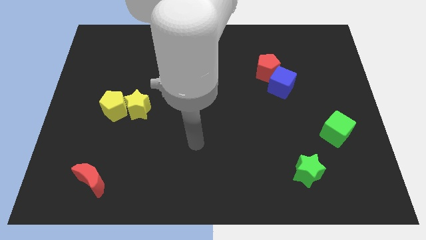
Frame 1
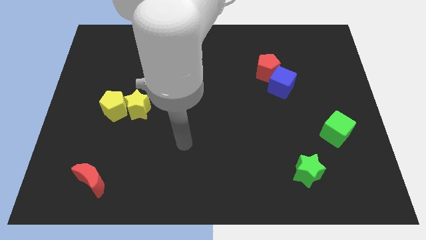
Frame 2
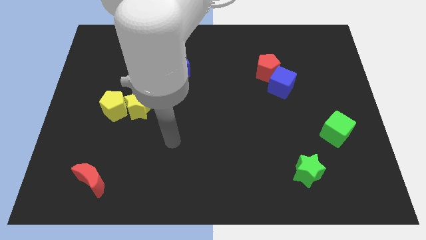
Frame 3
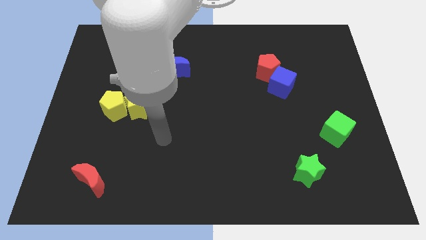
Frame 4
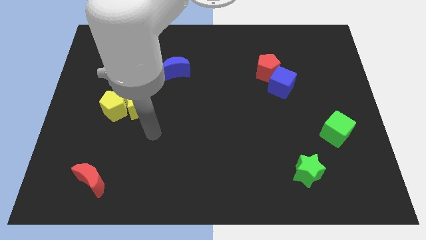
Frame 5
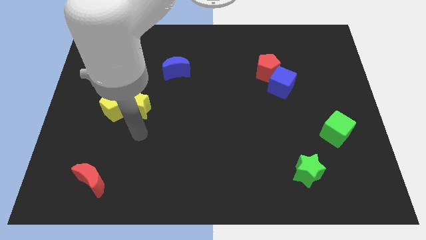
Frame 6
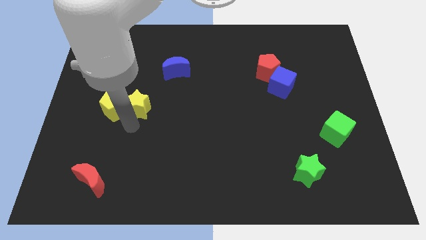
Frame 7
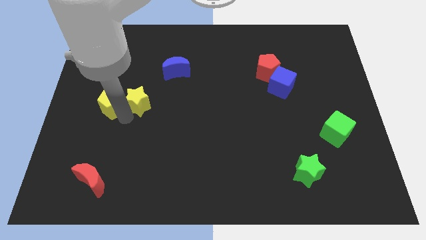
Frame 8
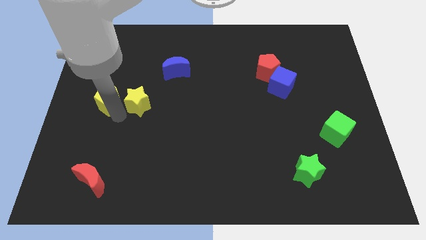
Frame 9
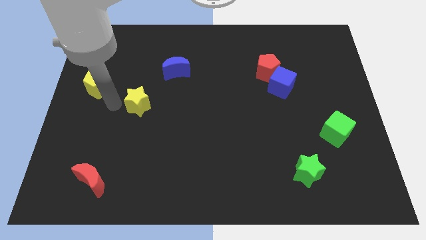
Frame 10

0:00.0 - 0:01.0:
move the yellow star away from the yellow pentagon

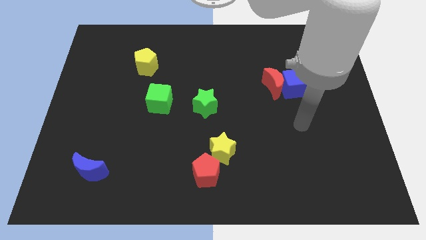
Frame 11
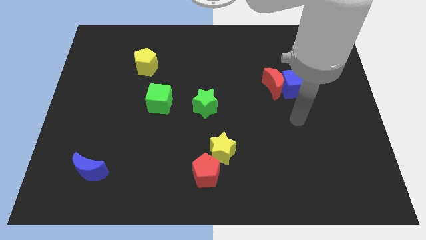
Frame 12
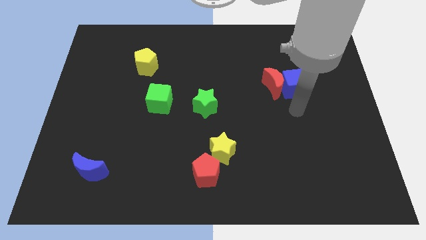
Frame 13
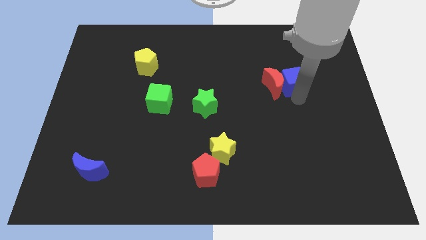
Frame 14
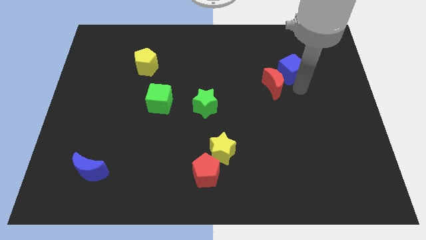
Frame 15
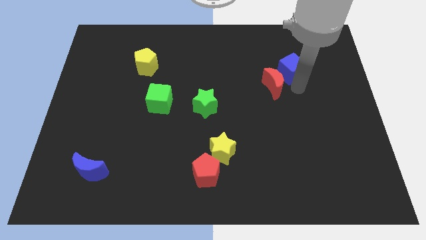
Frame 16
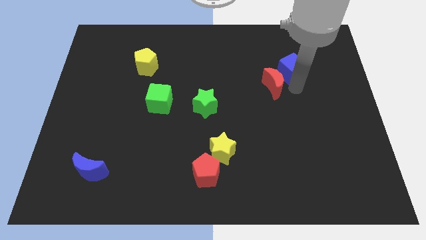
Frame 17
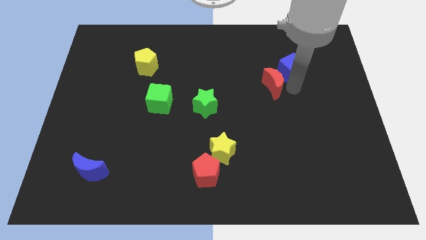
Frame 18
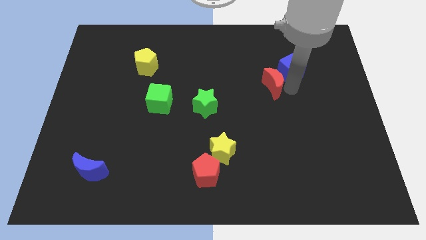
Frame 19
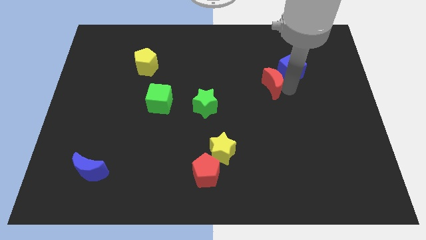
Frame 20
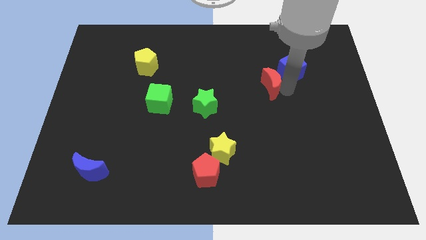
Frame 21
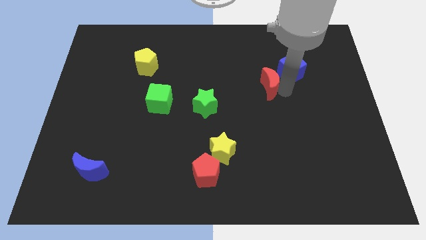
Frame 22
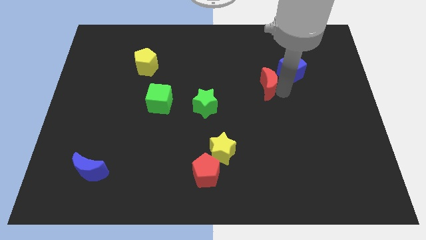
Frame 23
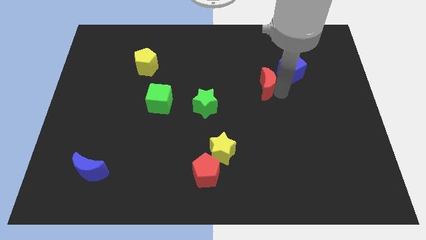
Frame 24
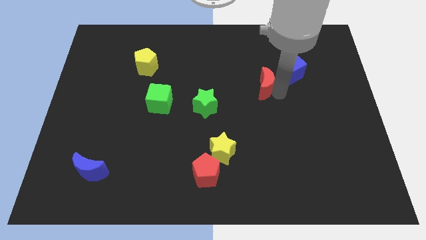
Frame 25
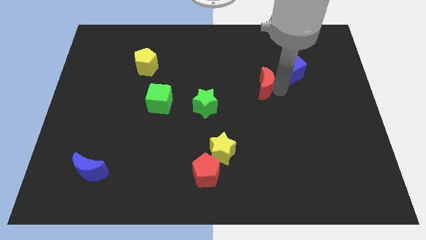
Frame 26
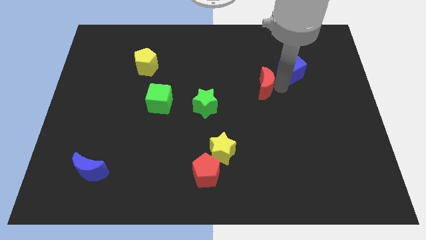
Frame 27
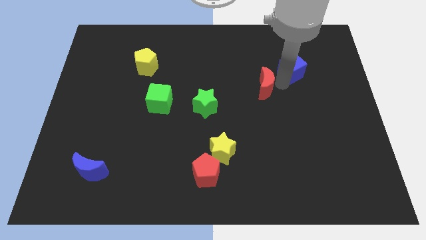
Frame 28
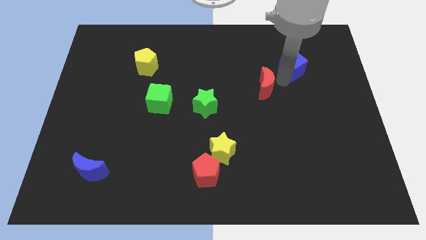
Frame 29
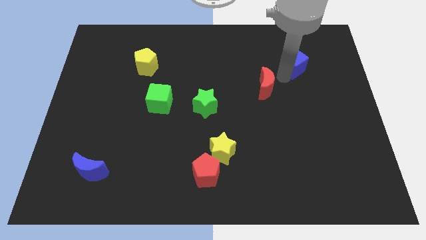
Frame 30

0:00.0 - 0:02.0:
separate the red moon from the blue cube

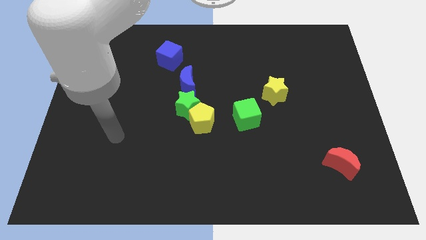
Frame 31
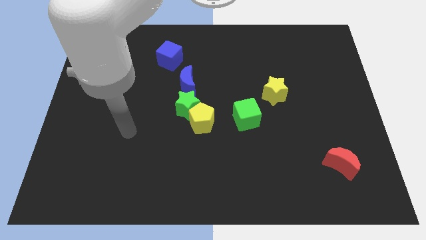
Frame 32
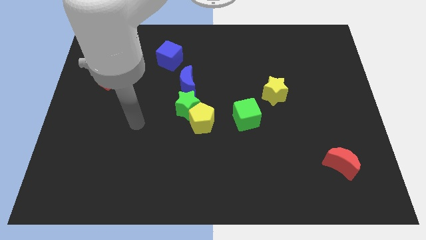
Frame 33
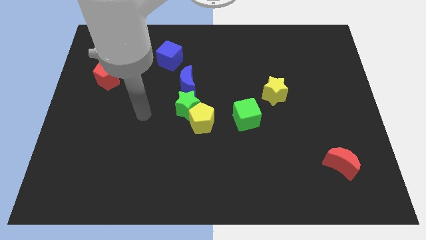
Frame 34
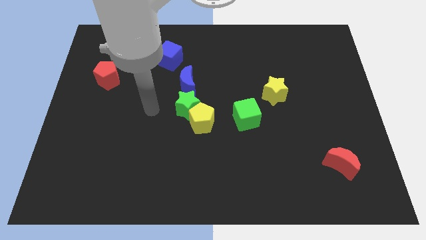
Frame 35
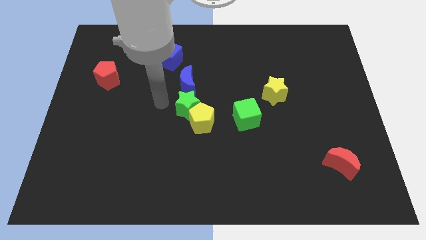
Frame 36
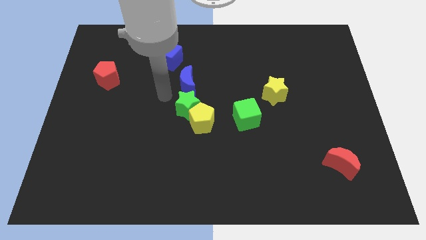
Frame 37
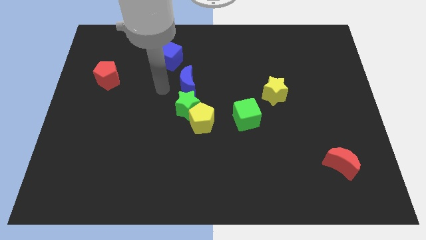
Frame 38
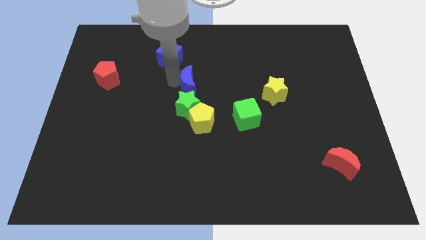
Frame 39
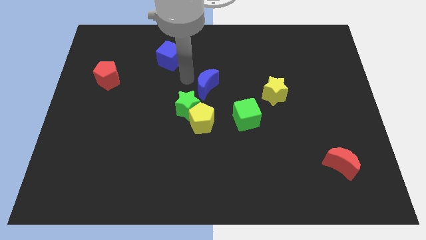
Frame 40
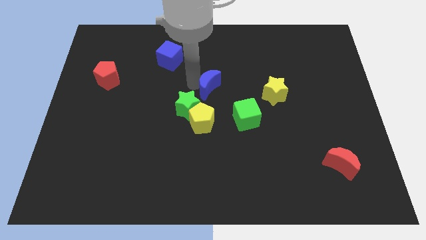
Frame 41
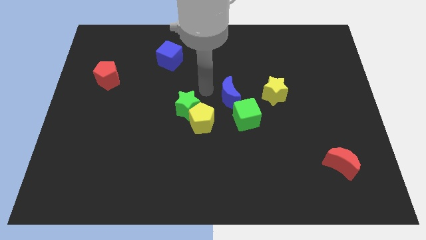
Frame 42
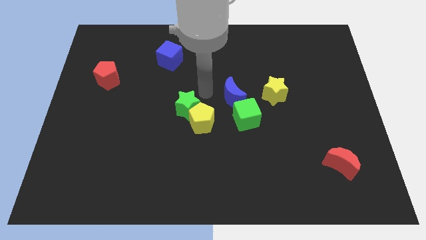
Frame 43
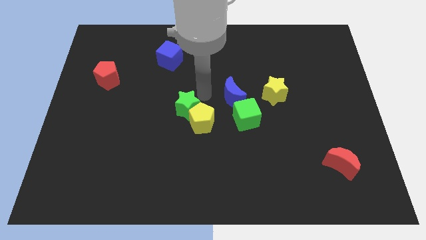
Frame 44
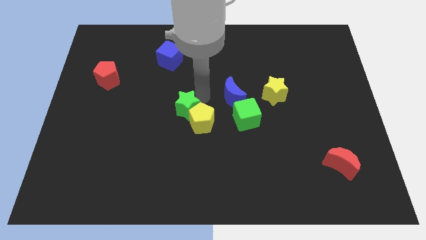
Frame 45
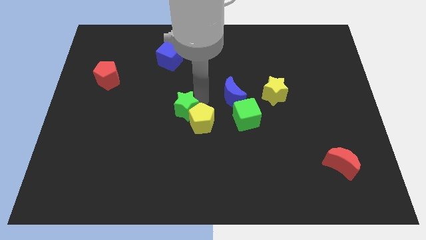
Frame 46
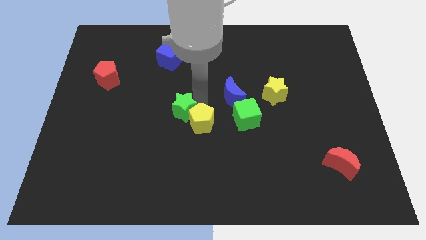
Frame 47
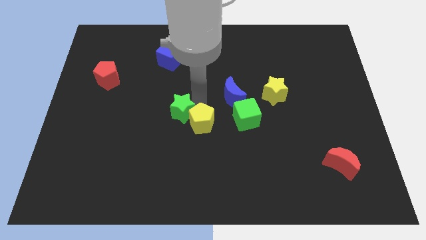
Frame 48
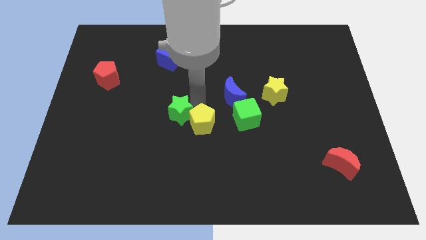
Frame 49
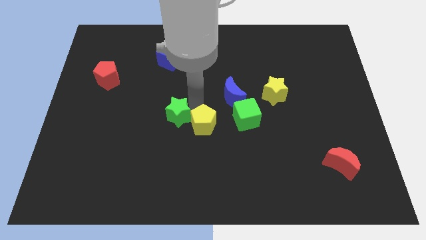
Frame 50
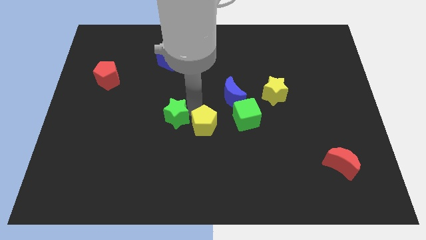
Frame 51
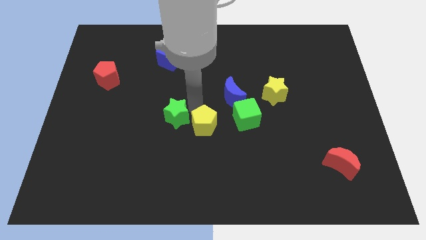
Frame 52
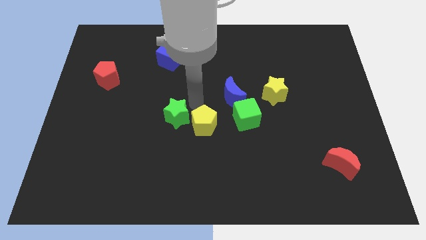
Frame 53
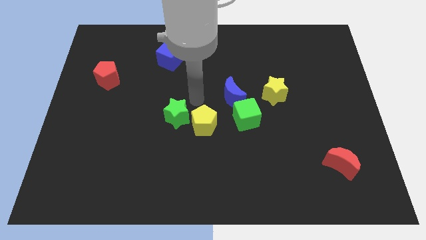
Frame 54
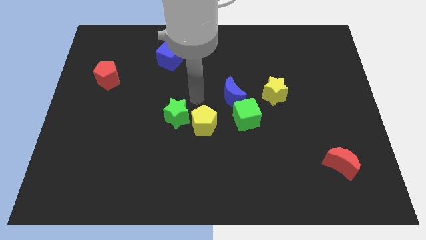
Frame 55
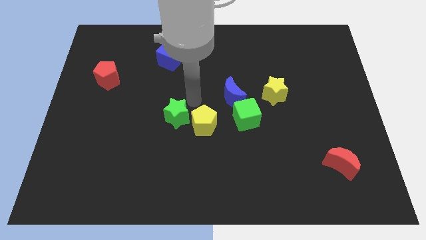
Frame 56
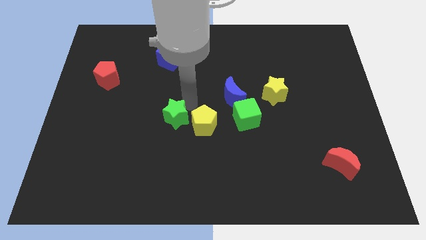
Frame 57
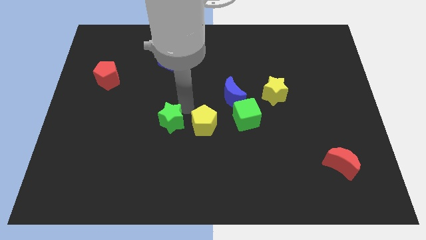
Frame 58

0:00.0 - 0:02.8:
move the green star away from the yellow pentagon and blue moon

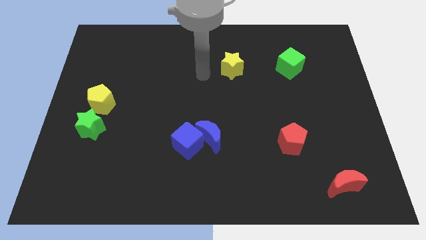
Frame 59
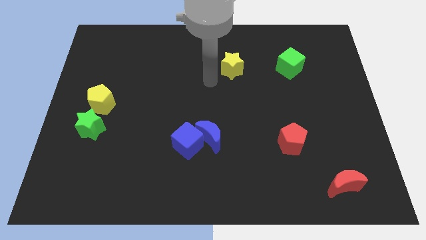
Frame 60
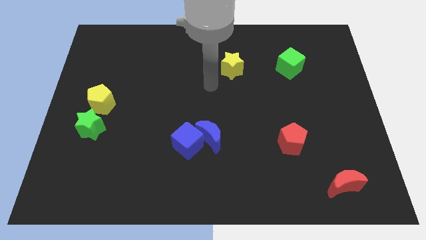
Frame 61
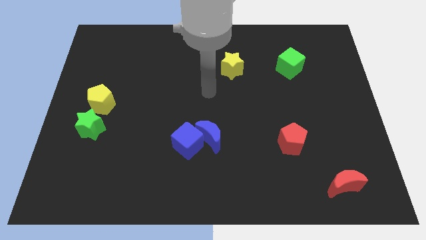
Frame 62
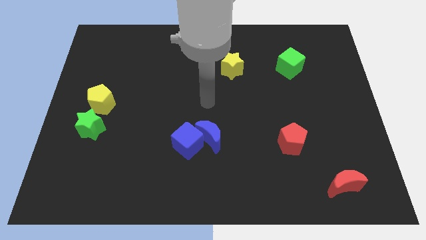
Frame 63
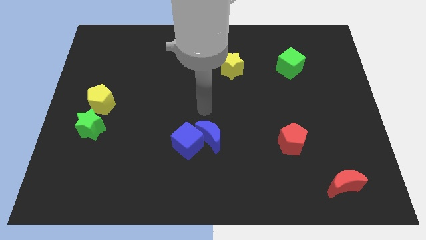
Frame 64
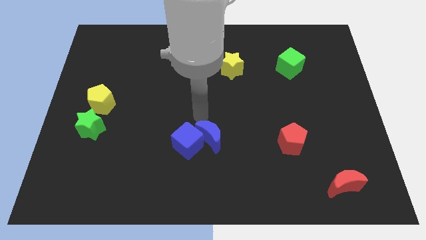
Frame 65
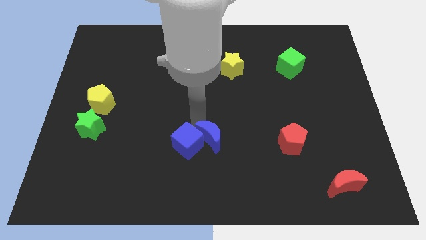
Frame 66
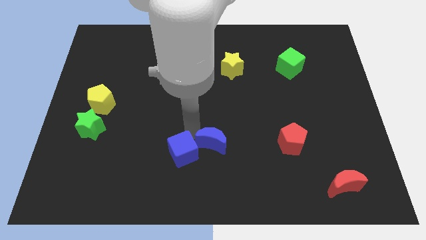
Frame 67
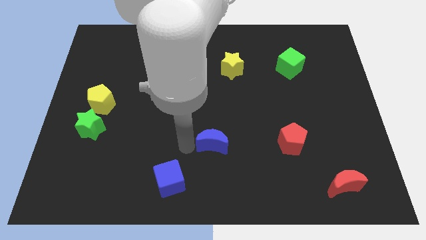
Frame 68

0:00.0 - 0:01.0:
separate the blue moon from the blue cube

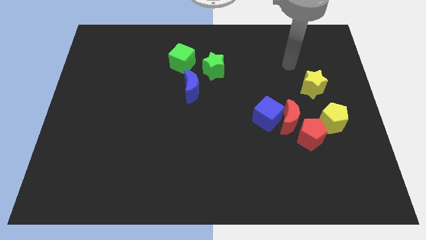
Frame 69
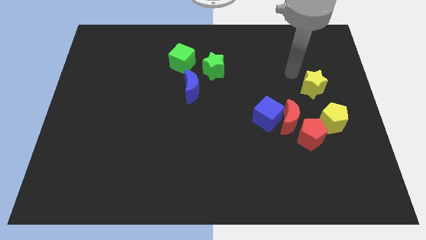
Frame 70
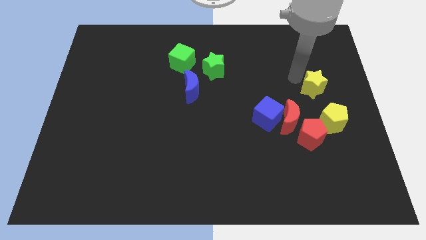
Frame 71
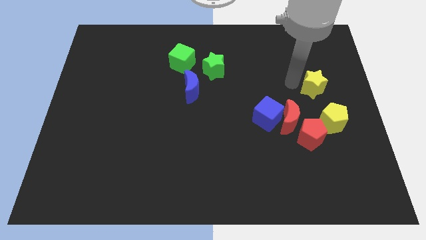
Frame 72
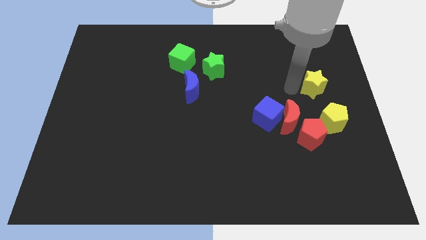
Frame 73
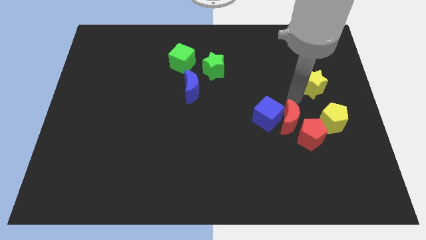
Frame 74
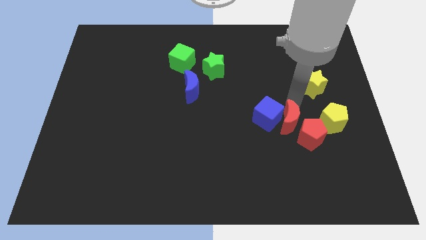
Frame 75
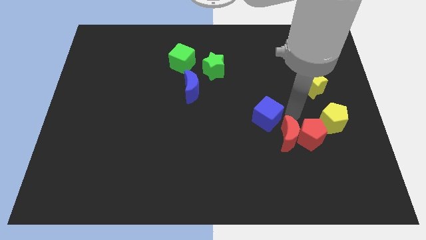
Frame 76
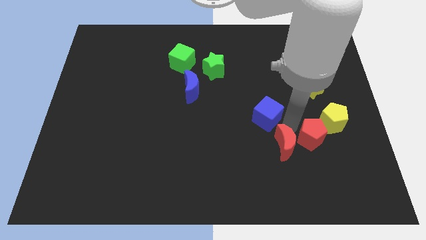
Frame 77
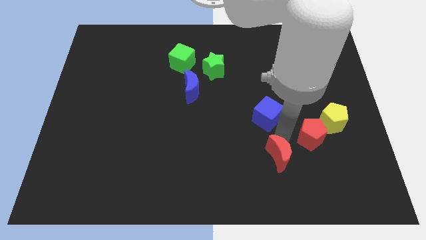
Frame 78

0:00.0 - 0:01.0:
pull the blue cube apart from the red moon

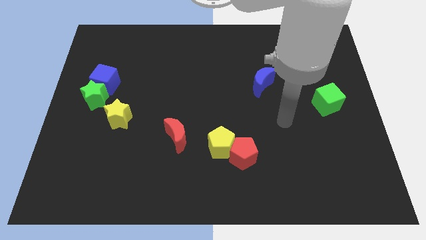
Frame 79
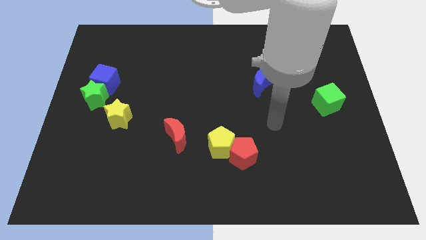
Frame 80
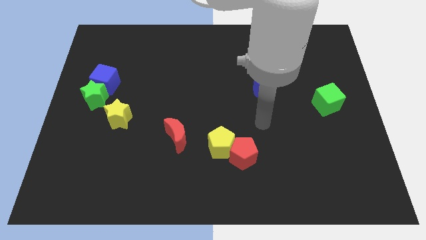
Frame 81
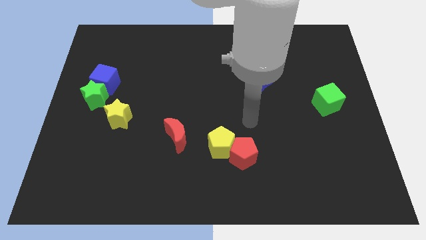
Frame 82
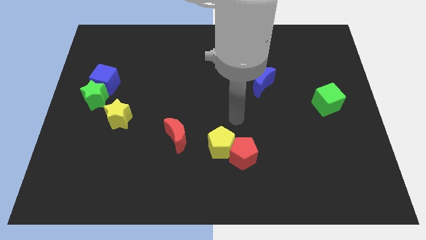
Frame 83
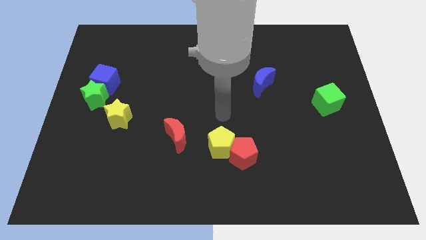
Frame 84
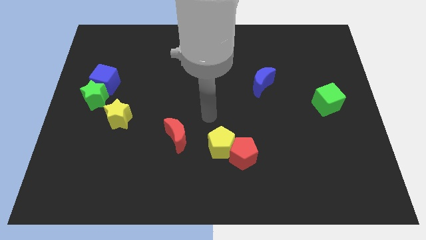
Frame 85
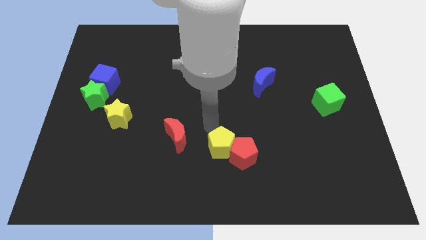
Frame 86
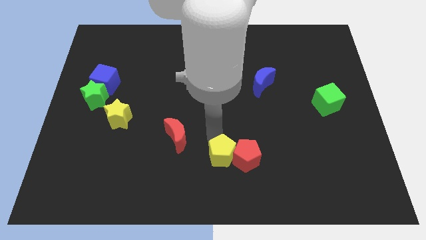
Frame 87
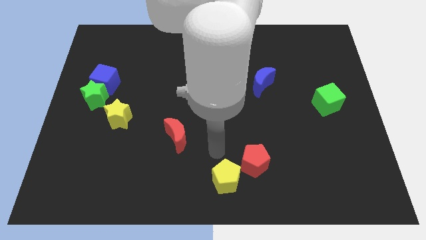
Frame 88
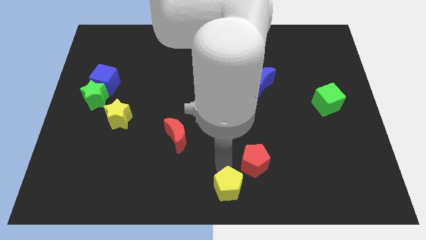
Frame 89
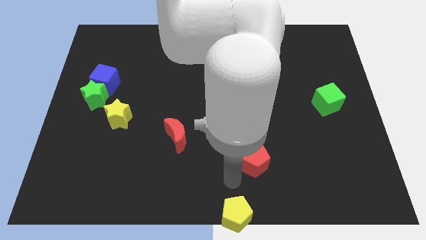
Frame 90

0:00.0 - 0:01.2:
pull the red pentagon apart from the yellow pentagon

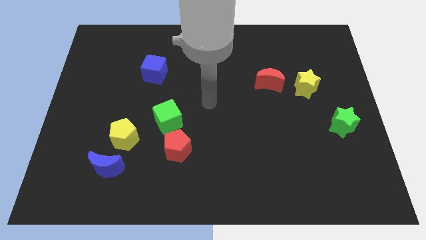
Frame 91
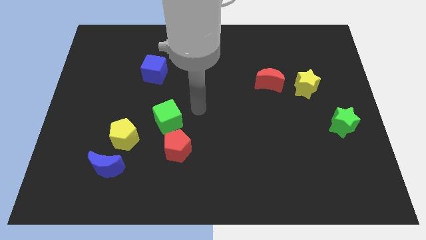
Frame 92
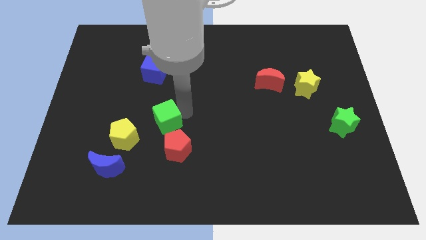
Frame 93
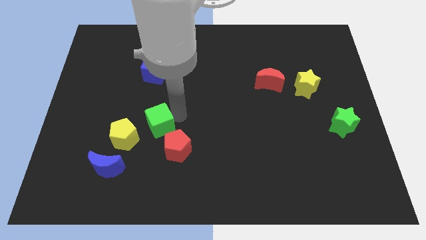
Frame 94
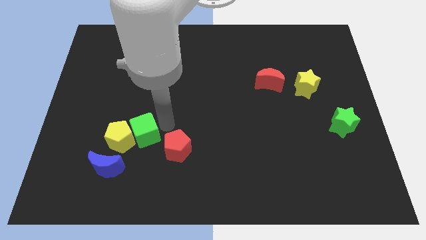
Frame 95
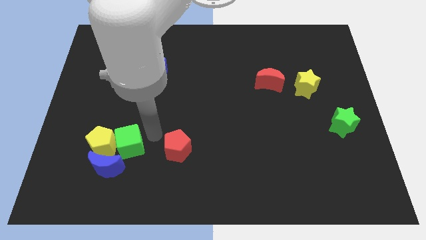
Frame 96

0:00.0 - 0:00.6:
pull the red pentagon apart from the green cube
